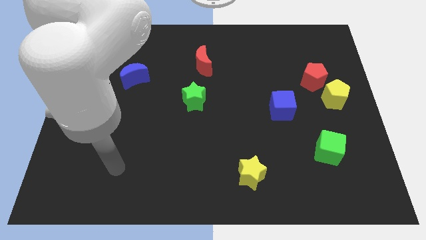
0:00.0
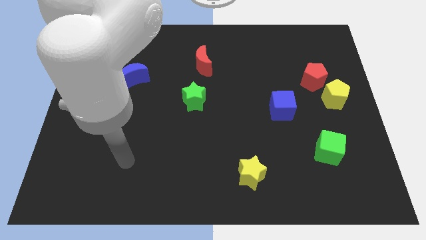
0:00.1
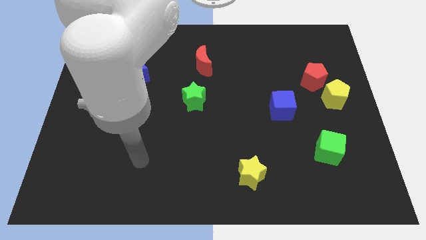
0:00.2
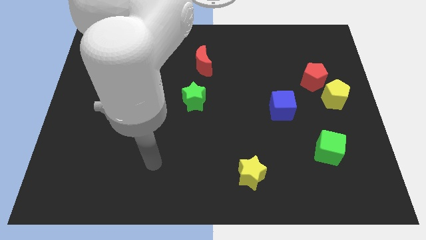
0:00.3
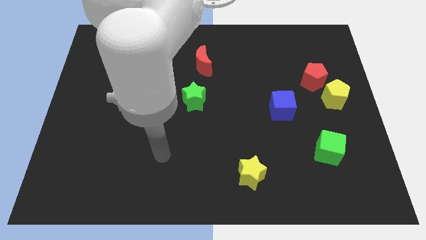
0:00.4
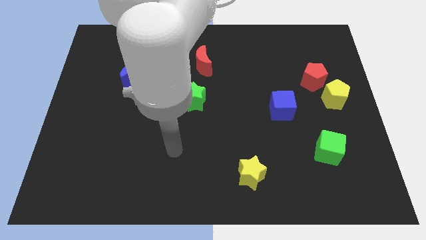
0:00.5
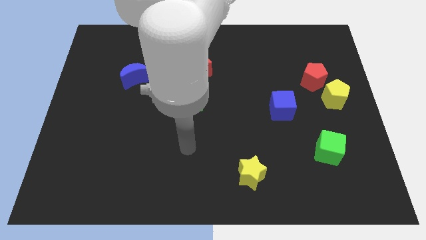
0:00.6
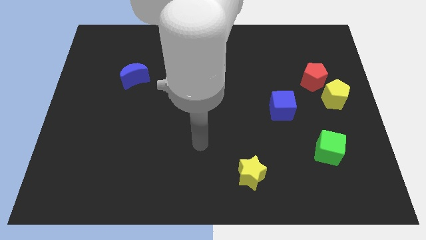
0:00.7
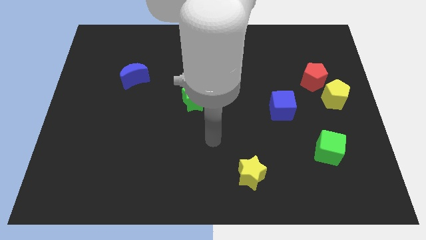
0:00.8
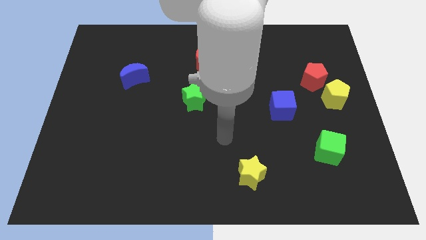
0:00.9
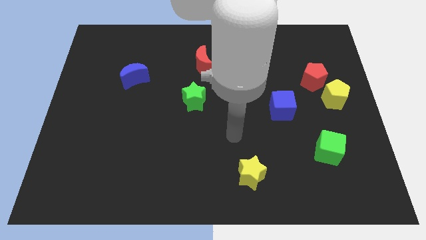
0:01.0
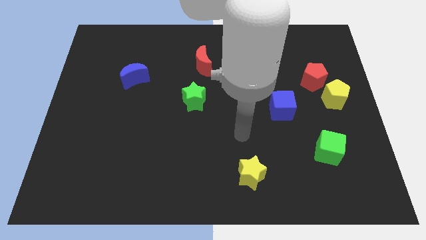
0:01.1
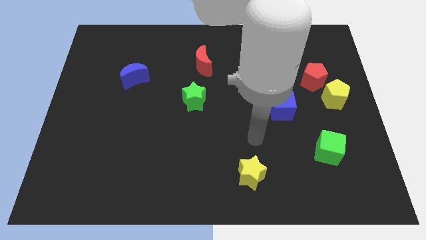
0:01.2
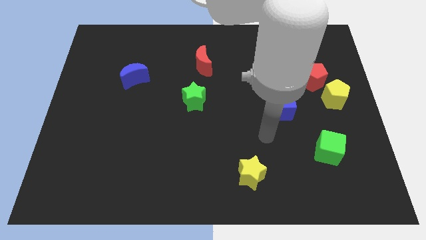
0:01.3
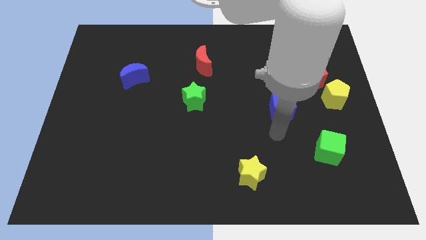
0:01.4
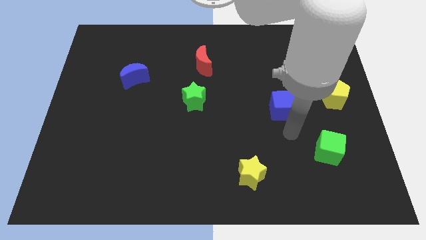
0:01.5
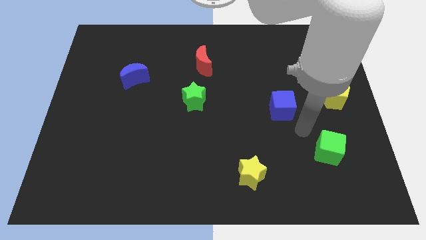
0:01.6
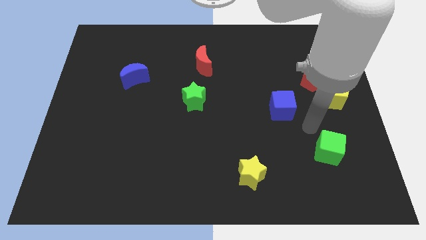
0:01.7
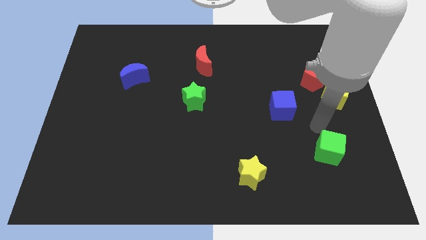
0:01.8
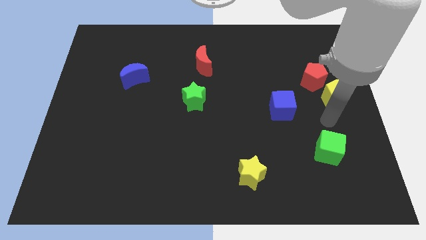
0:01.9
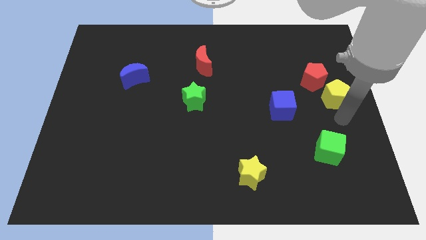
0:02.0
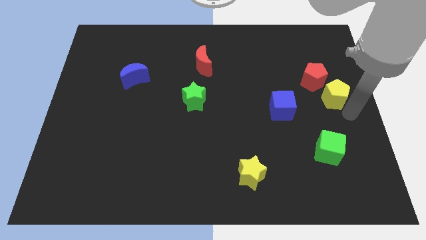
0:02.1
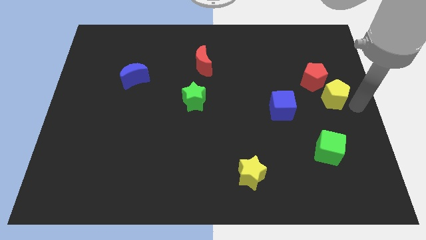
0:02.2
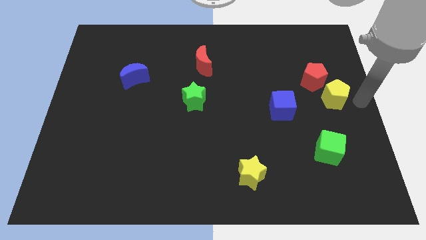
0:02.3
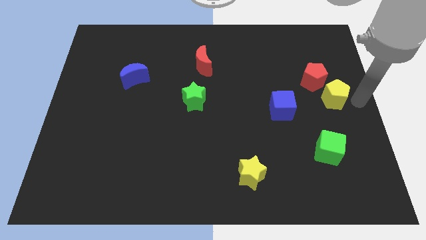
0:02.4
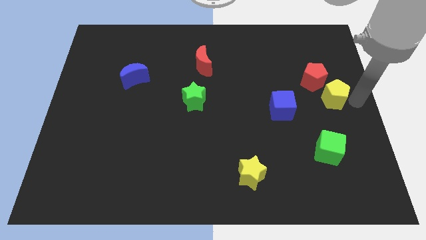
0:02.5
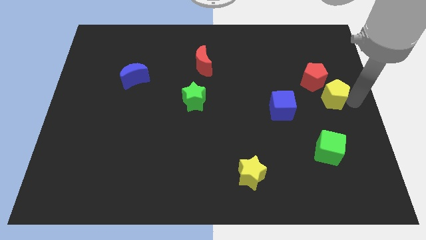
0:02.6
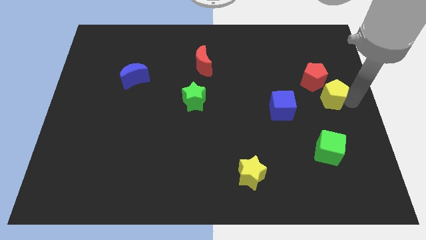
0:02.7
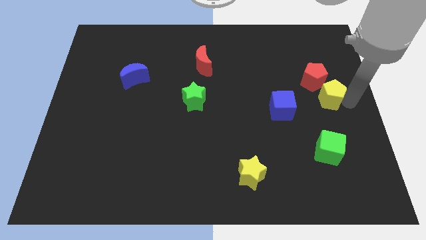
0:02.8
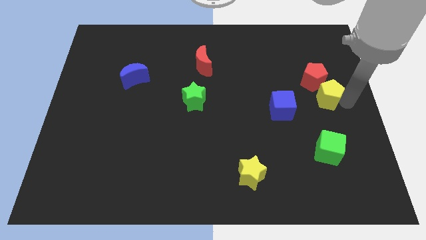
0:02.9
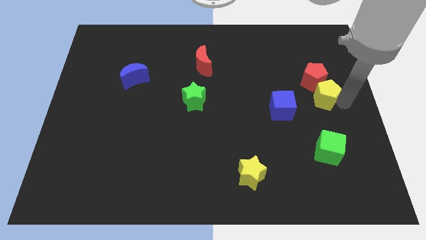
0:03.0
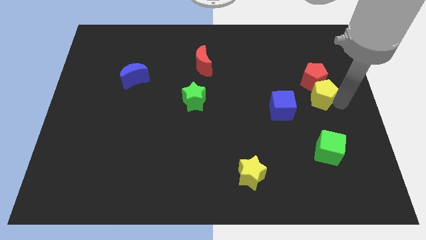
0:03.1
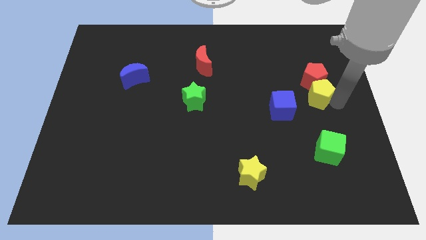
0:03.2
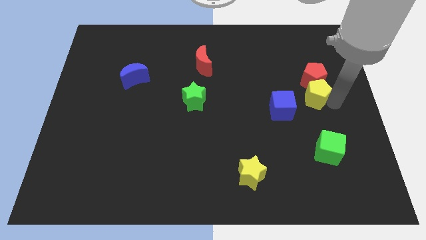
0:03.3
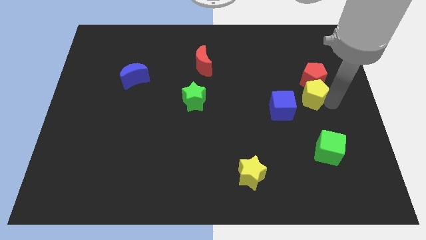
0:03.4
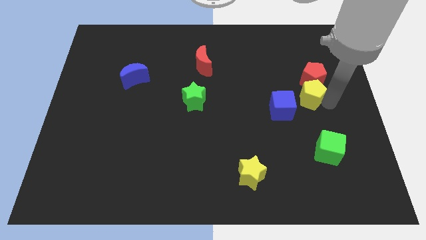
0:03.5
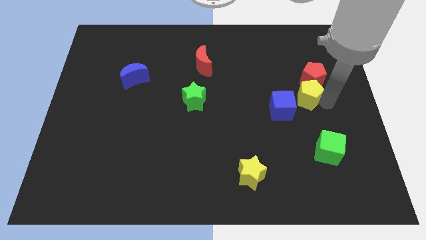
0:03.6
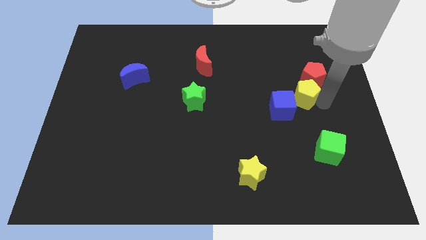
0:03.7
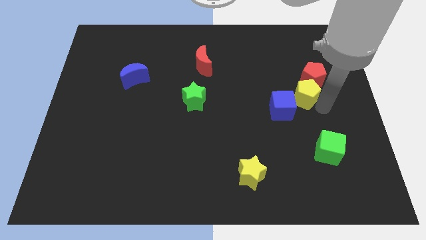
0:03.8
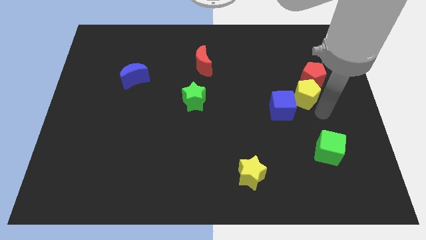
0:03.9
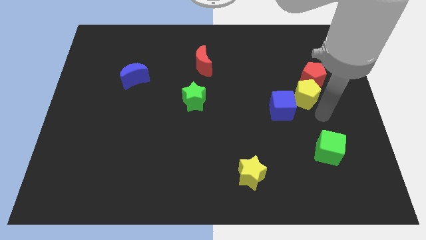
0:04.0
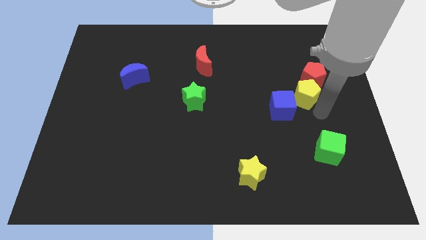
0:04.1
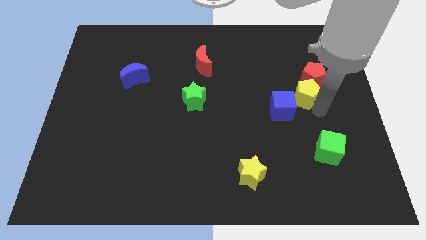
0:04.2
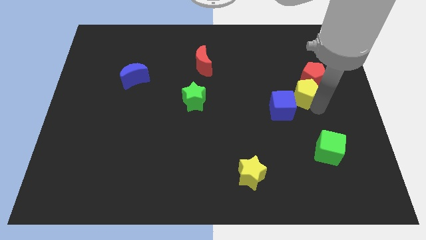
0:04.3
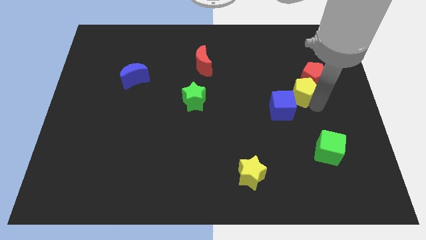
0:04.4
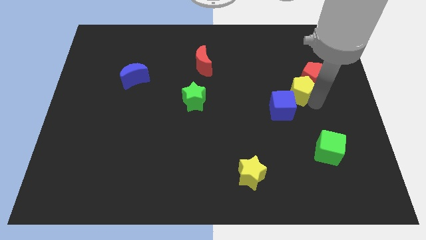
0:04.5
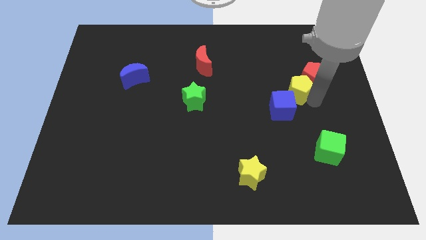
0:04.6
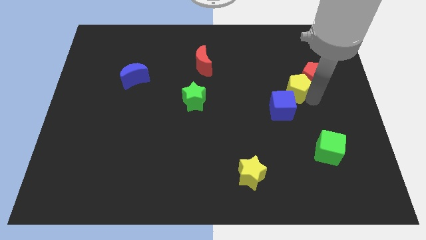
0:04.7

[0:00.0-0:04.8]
move the yellow pentagon upwards and then to the left a bit

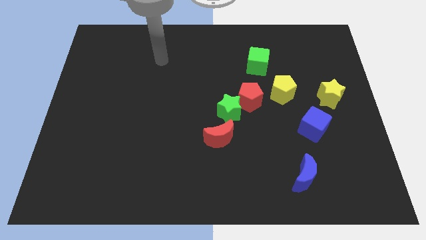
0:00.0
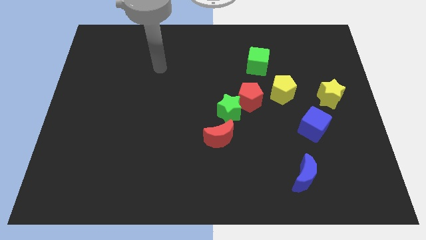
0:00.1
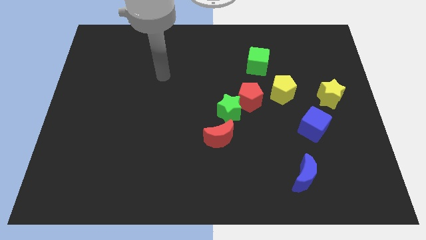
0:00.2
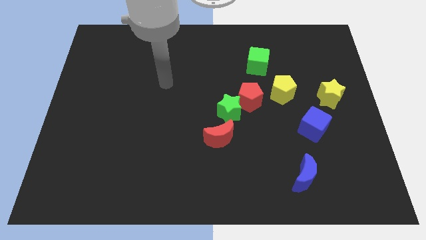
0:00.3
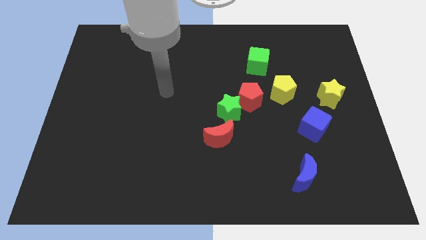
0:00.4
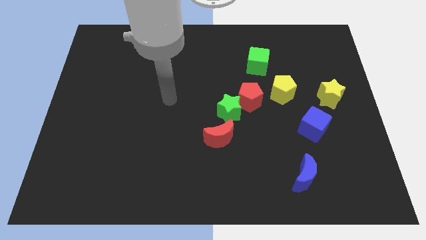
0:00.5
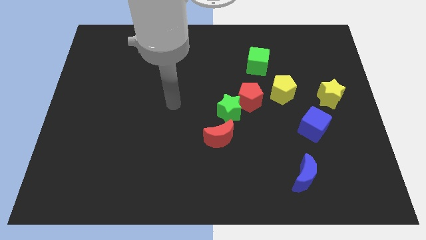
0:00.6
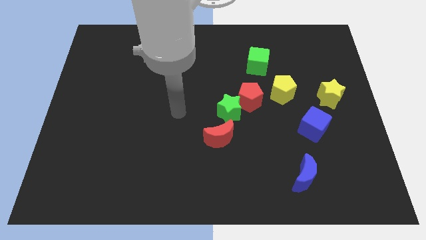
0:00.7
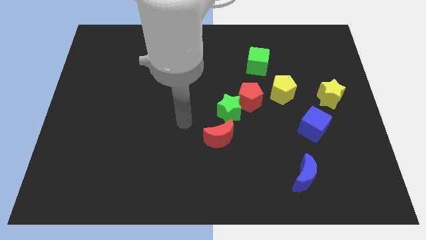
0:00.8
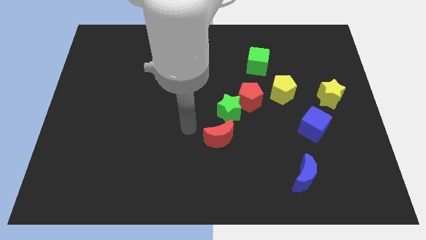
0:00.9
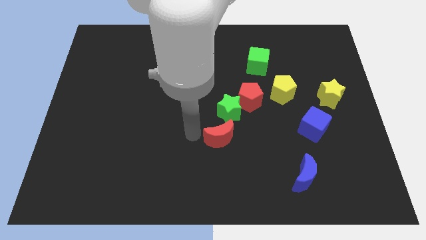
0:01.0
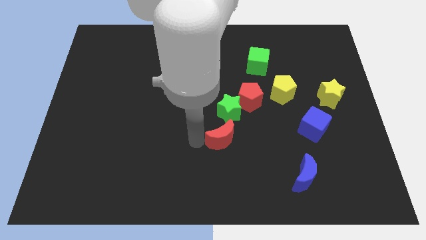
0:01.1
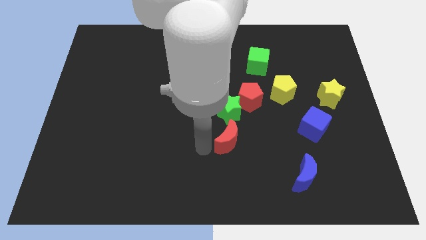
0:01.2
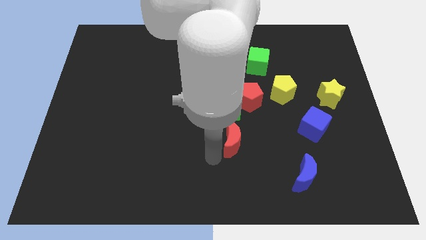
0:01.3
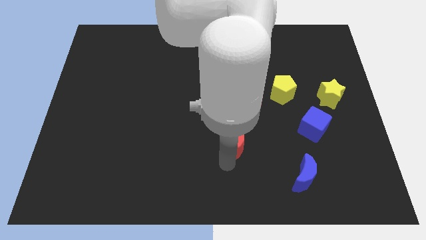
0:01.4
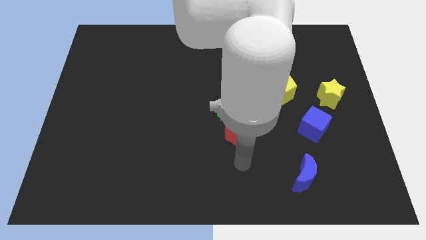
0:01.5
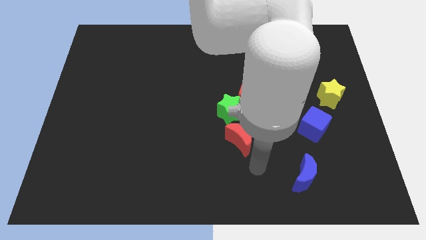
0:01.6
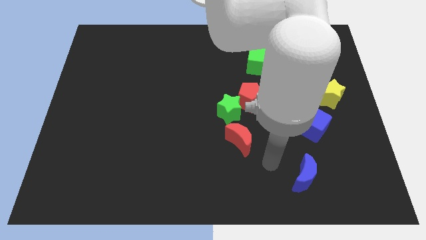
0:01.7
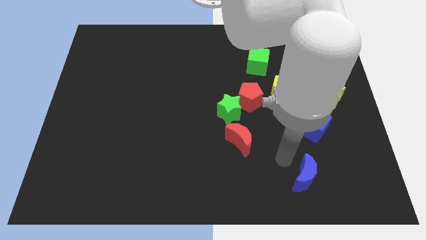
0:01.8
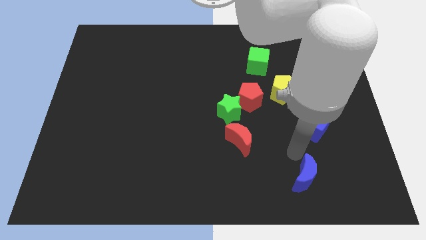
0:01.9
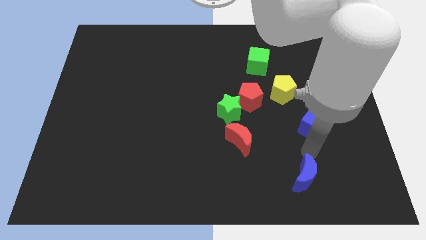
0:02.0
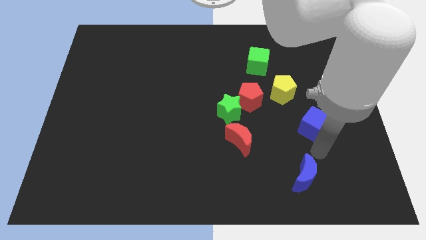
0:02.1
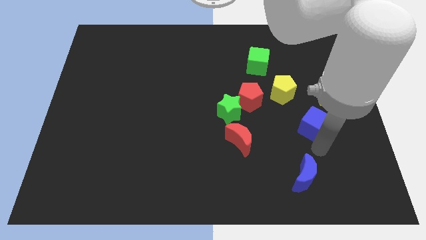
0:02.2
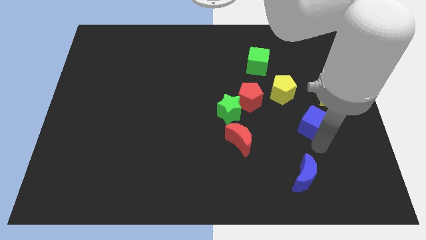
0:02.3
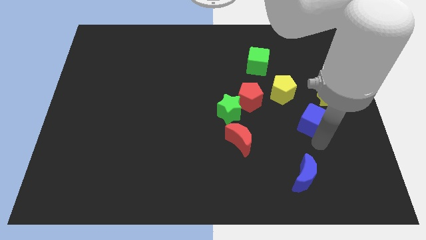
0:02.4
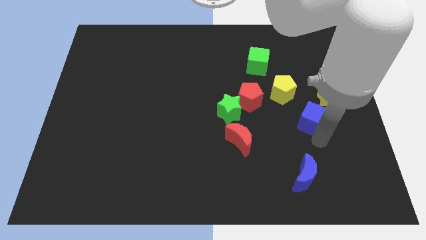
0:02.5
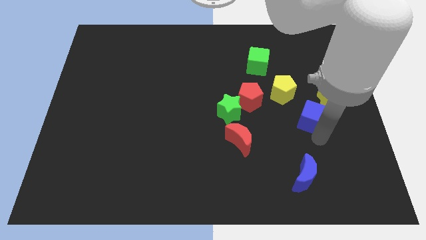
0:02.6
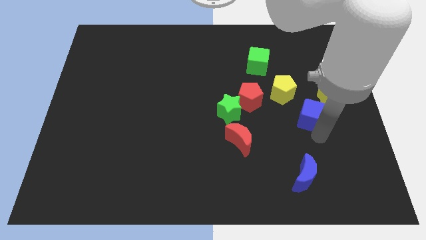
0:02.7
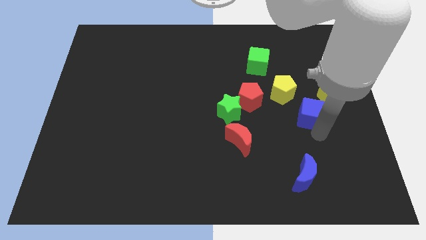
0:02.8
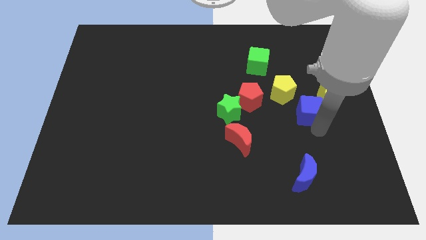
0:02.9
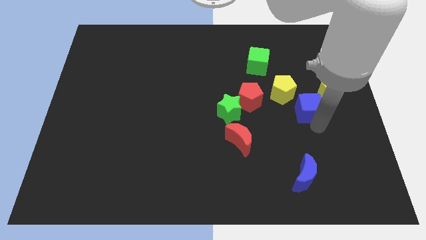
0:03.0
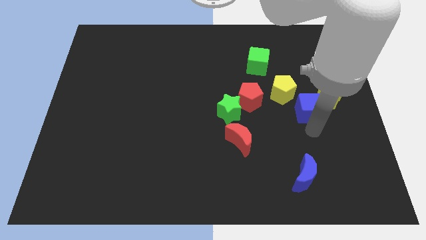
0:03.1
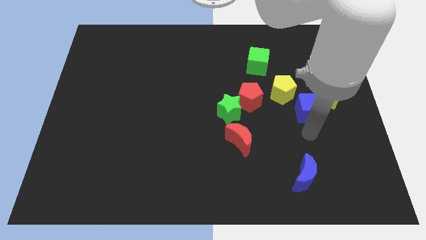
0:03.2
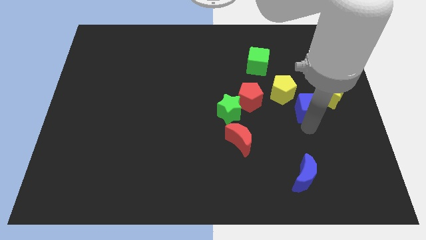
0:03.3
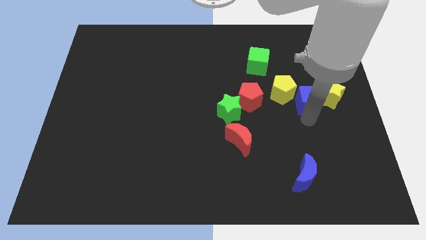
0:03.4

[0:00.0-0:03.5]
slightly slide the blue cube up
